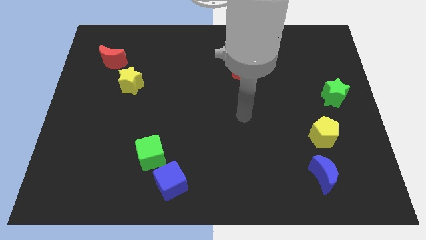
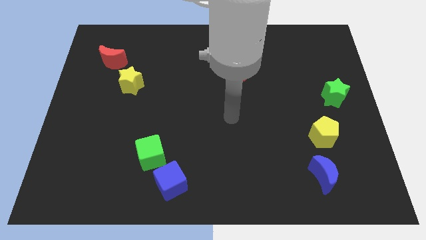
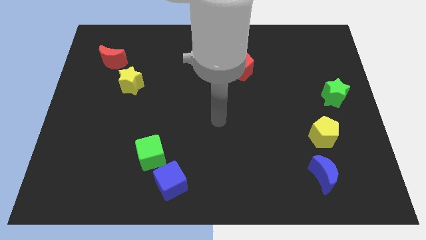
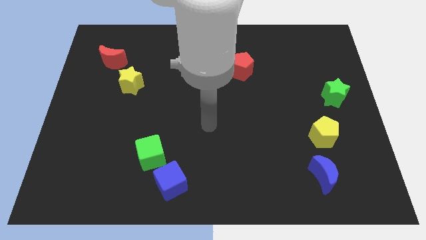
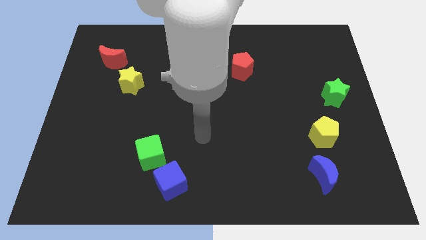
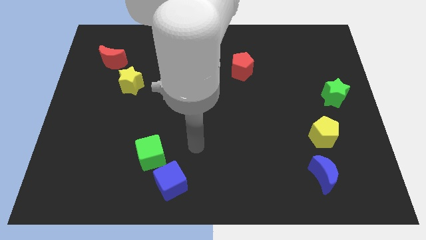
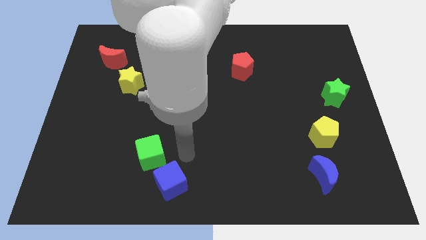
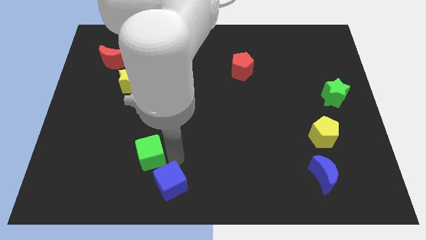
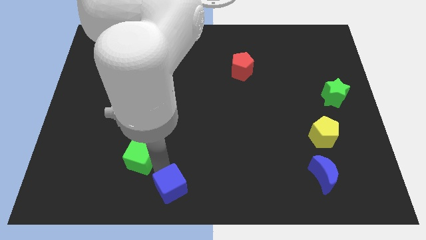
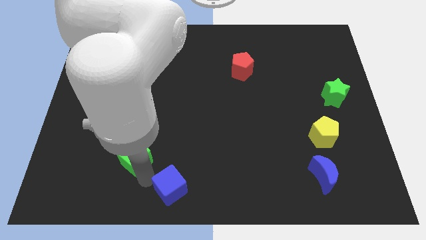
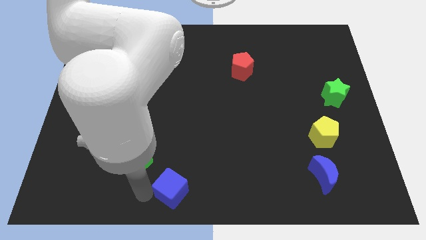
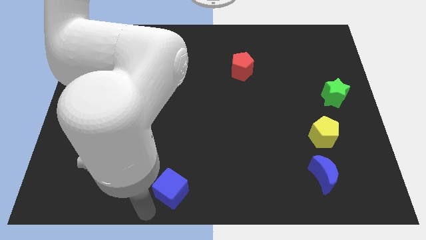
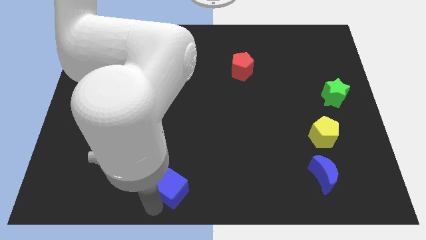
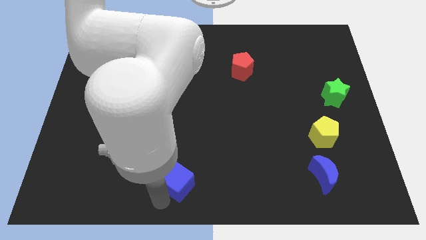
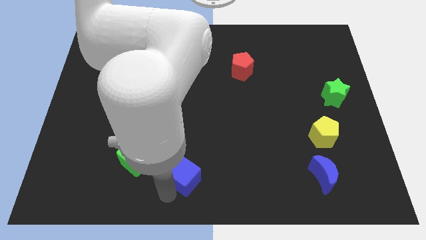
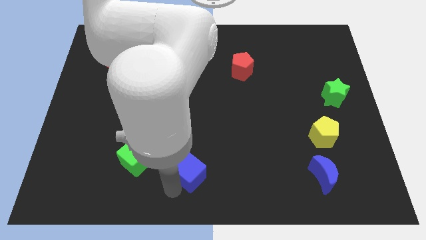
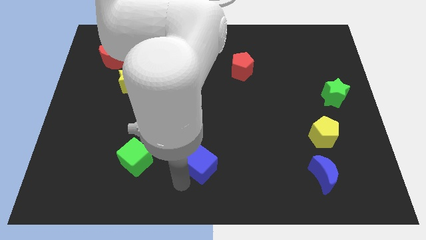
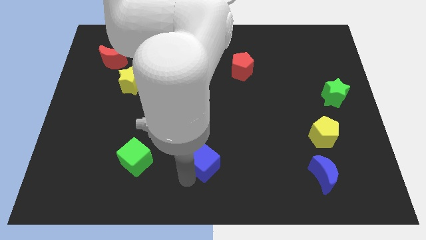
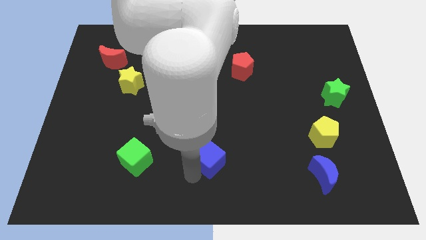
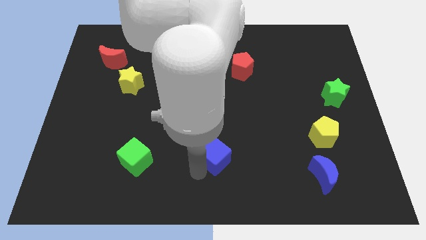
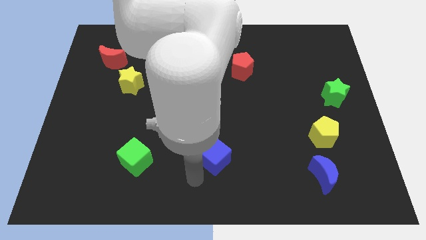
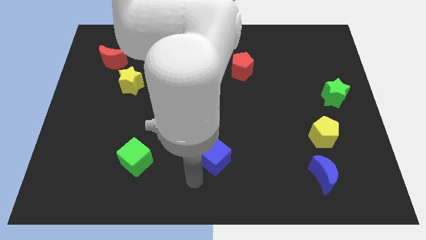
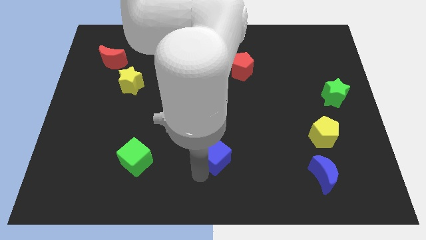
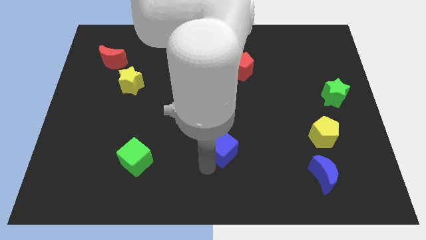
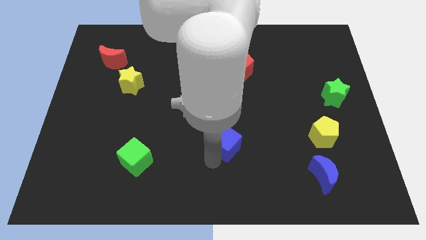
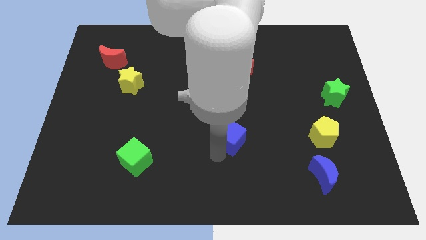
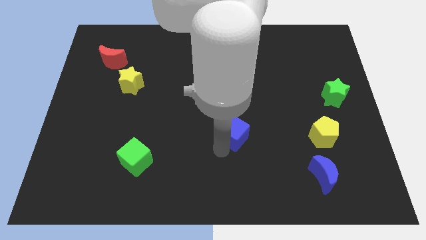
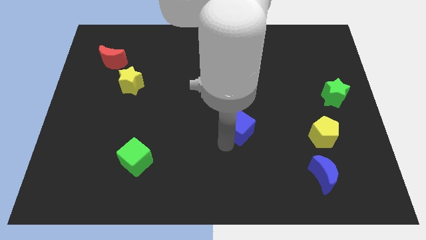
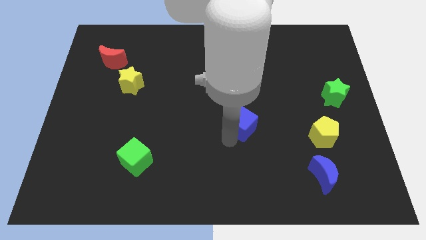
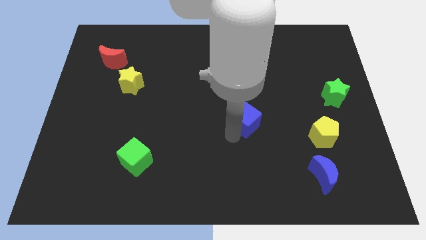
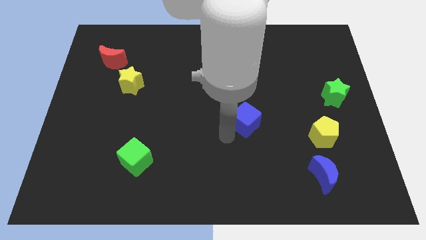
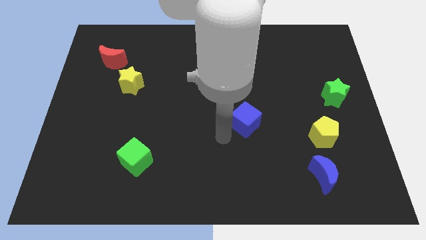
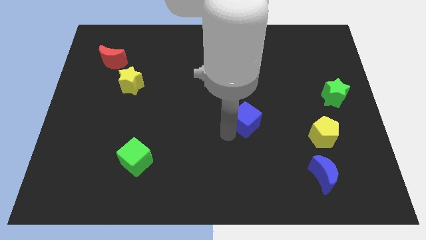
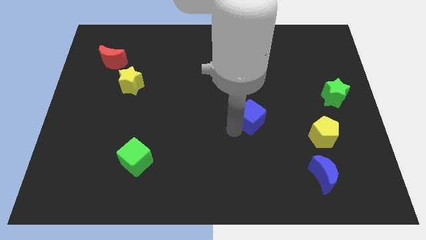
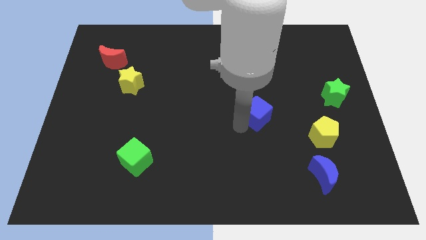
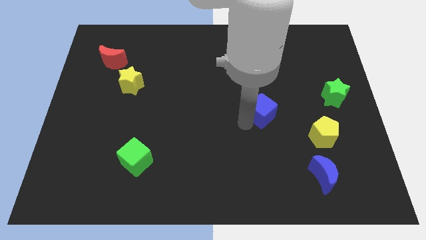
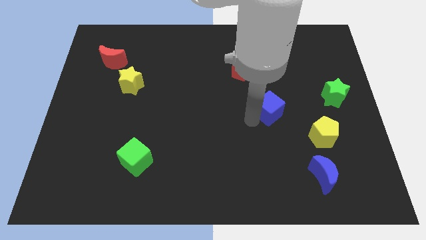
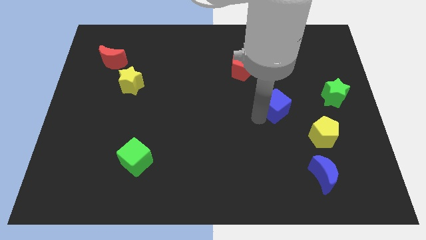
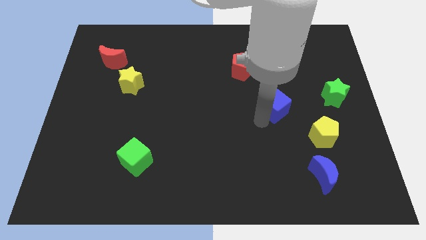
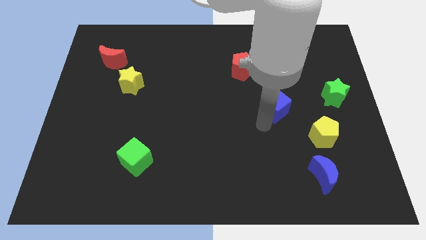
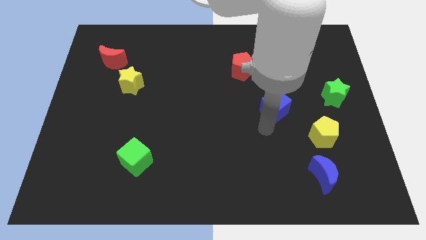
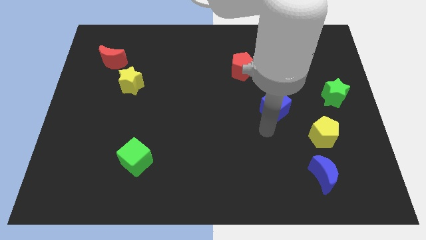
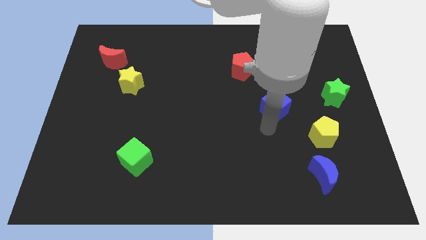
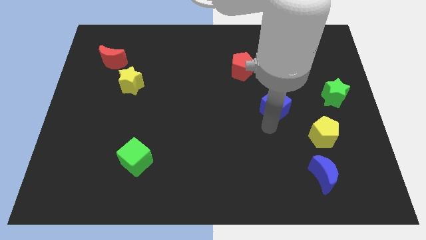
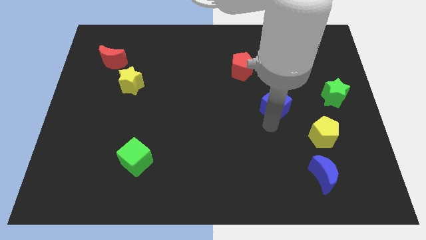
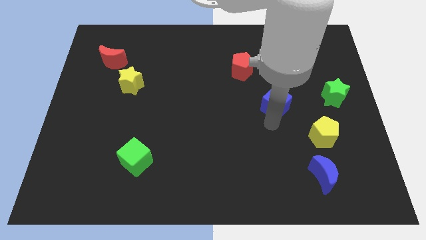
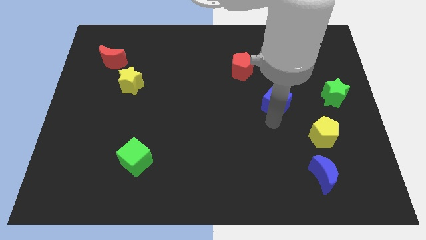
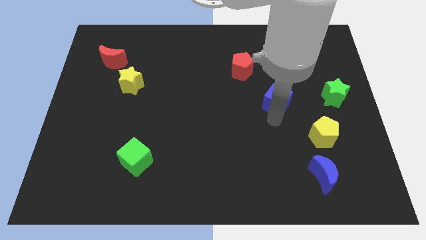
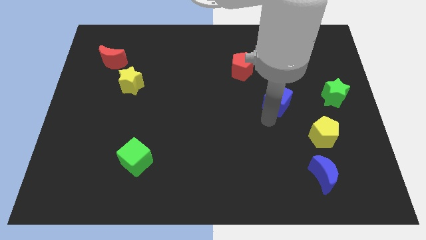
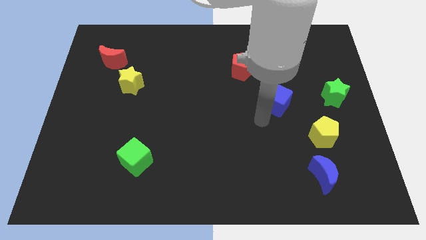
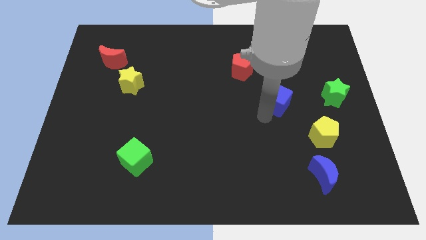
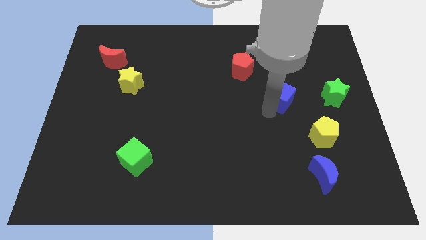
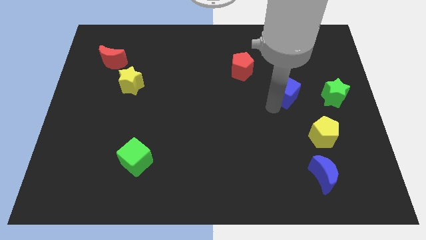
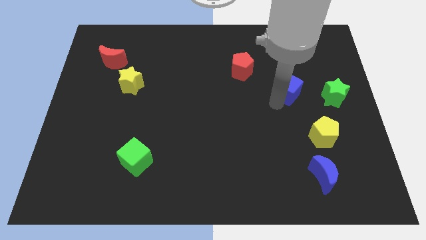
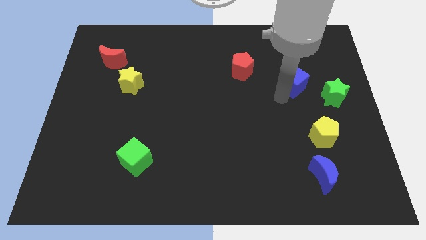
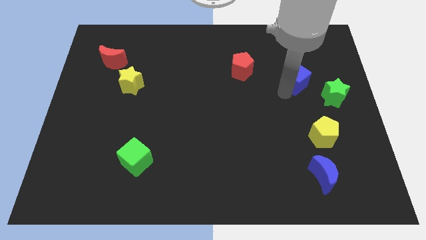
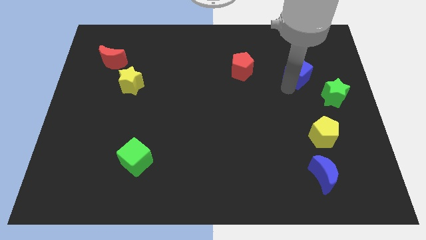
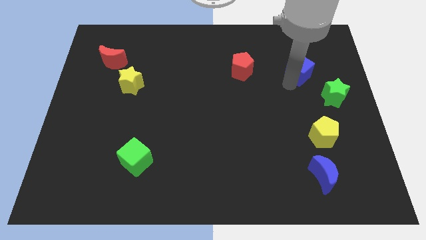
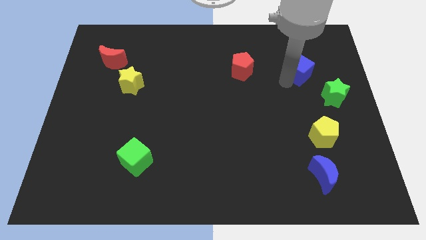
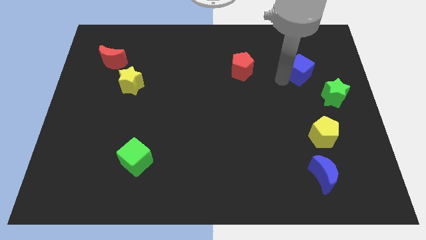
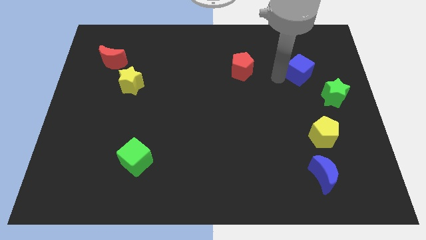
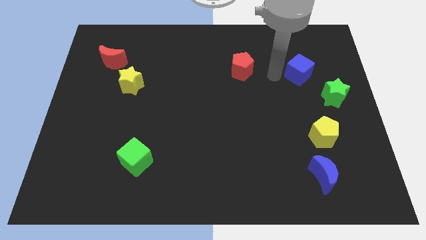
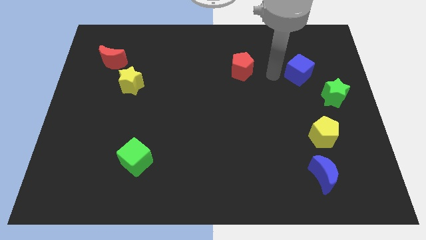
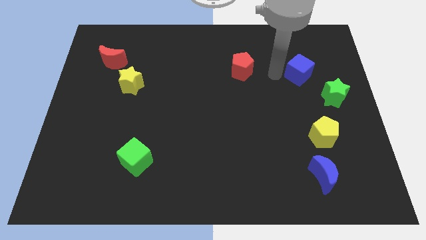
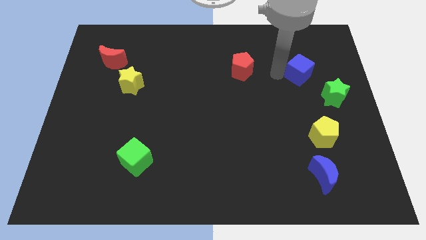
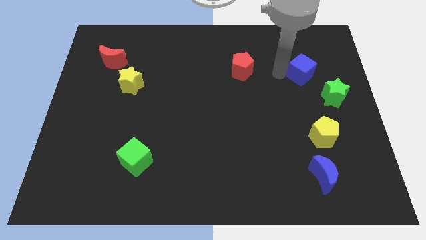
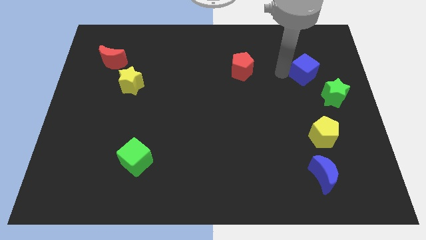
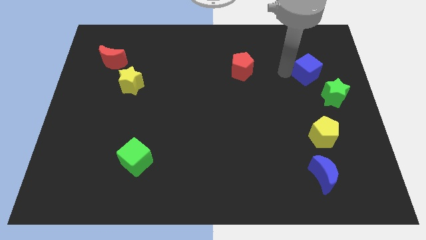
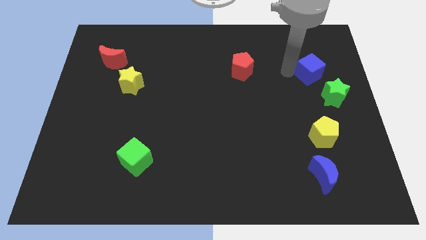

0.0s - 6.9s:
move the blue cube above the green star
